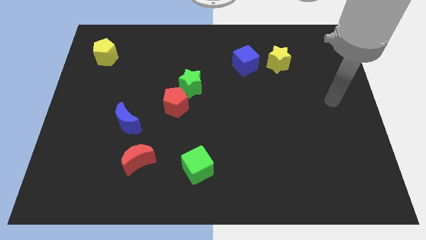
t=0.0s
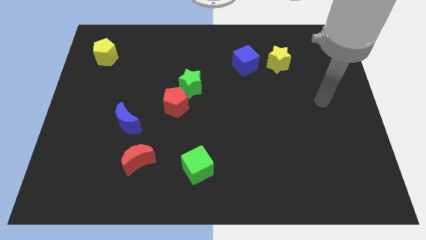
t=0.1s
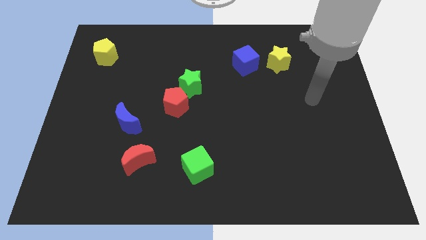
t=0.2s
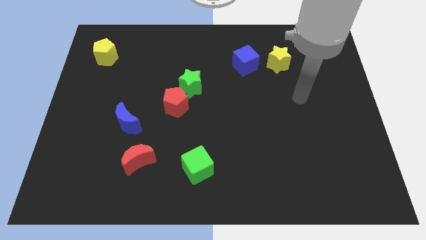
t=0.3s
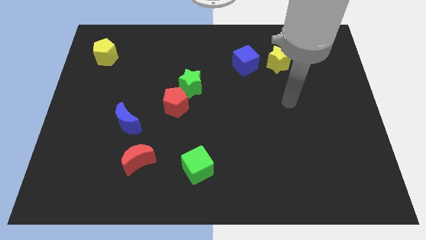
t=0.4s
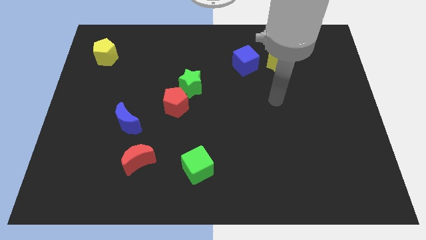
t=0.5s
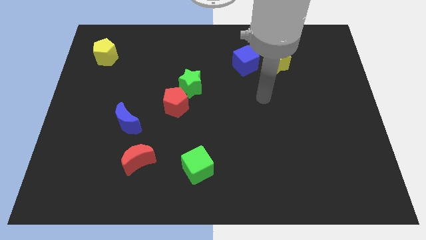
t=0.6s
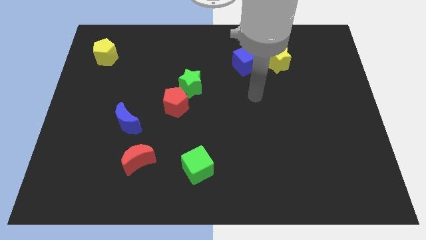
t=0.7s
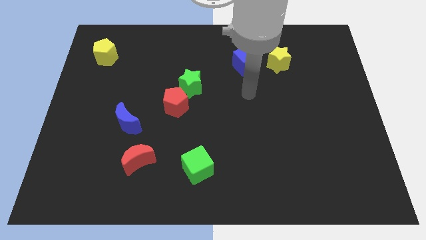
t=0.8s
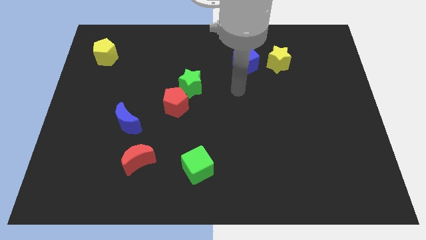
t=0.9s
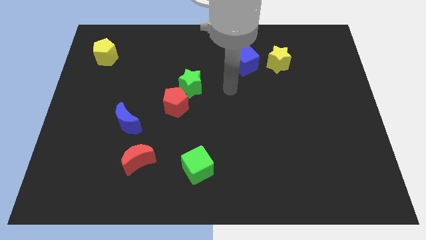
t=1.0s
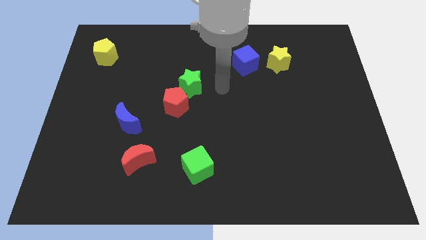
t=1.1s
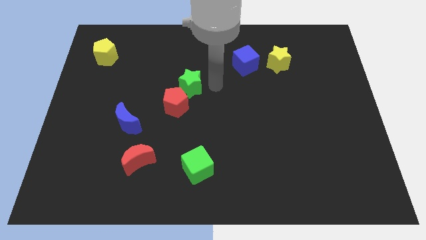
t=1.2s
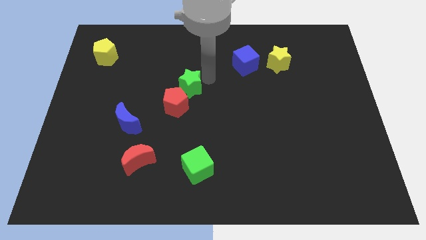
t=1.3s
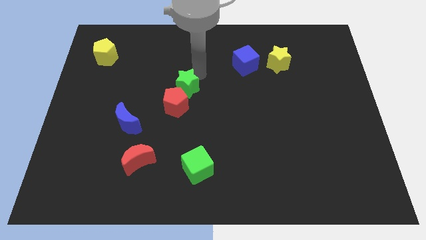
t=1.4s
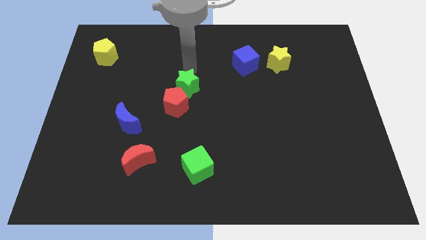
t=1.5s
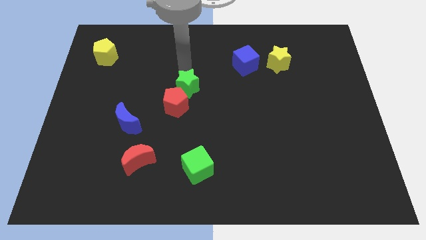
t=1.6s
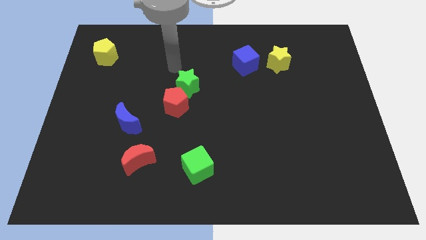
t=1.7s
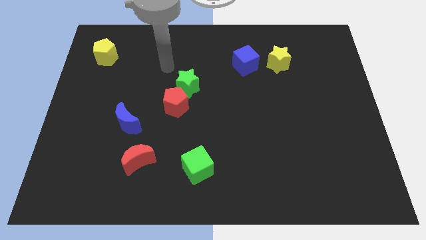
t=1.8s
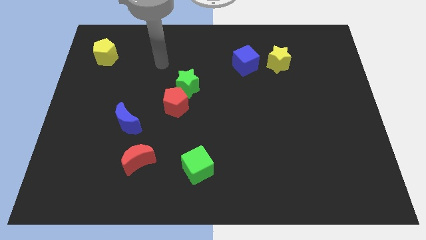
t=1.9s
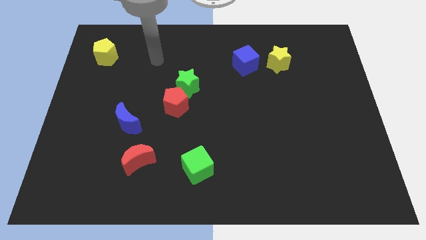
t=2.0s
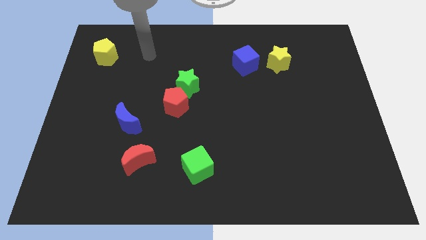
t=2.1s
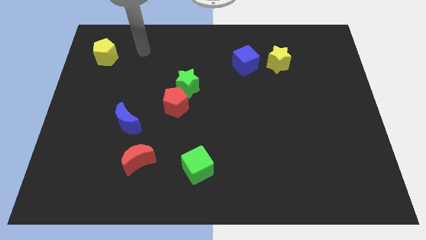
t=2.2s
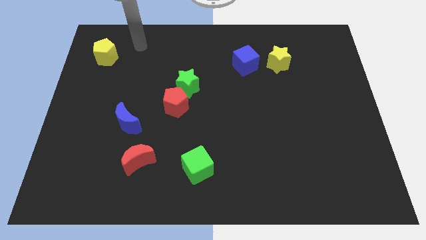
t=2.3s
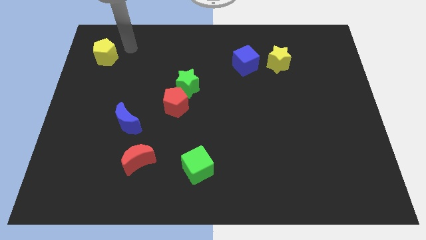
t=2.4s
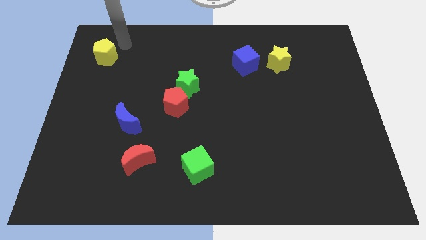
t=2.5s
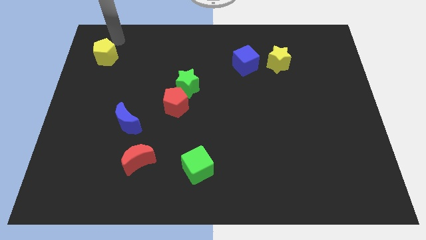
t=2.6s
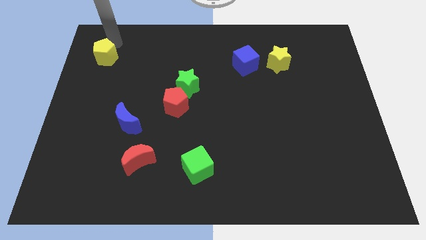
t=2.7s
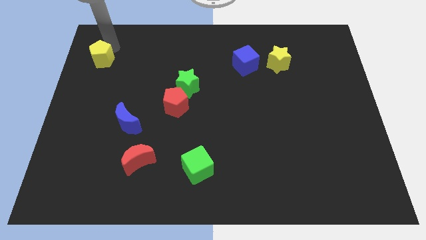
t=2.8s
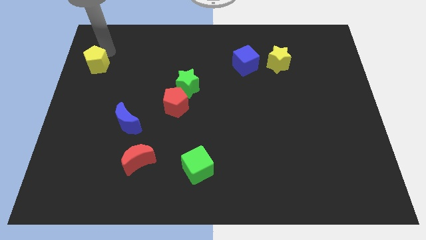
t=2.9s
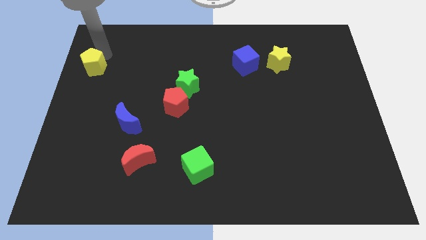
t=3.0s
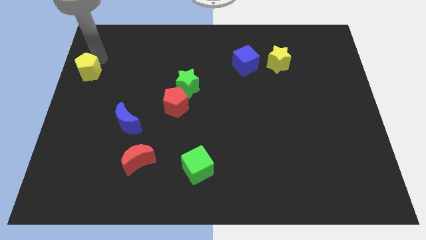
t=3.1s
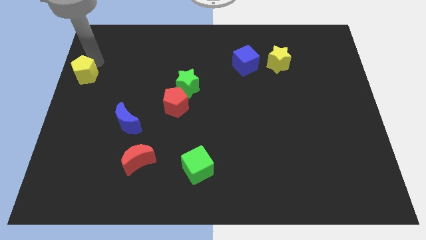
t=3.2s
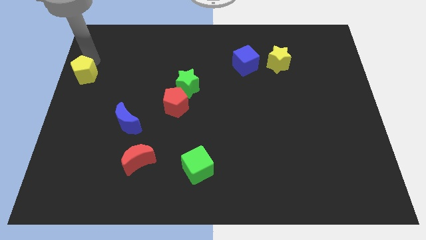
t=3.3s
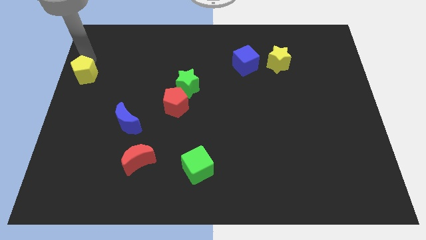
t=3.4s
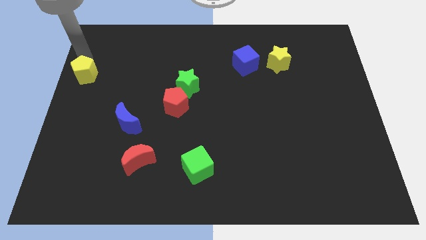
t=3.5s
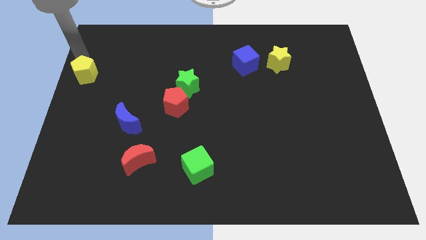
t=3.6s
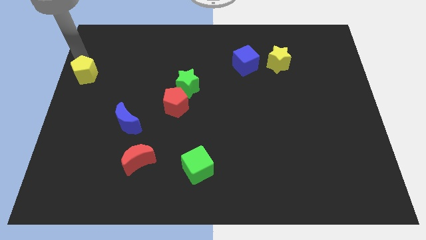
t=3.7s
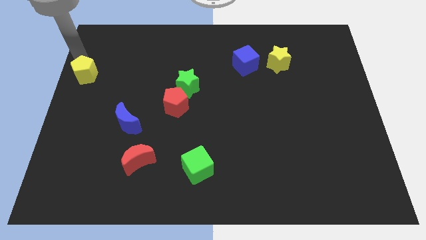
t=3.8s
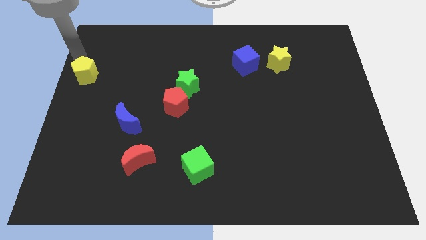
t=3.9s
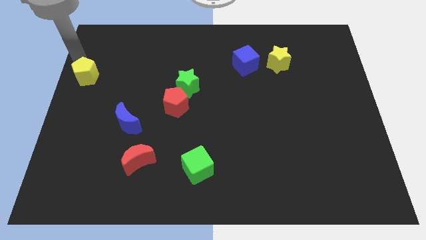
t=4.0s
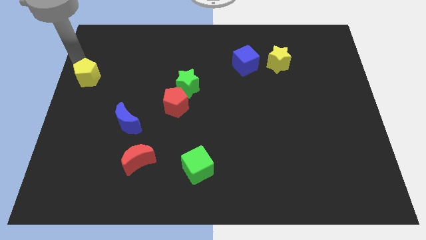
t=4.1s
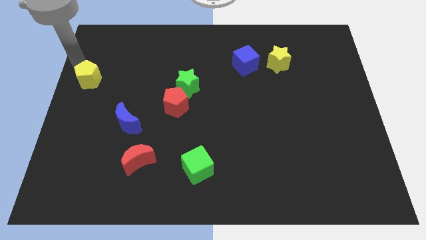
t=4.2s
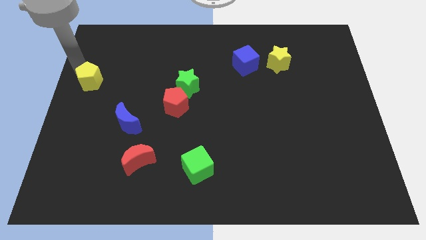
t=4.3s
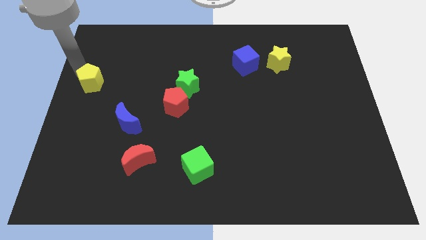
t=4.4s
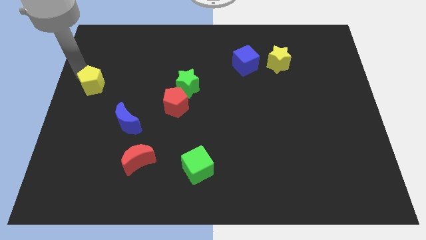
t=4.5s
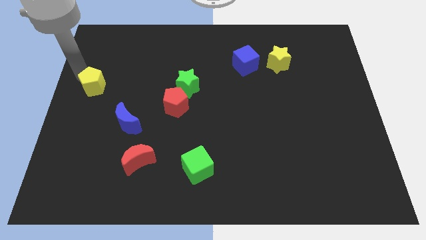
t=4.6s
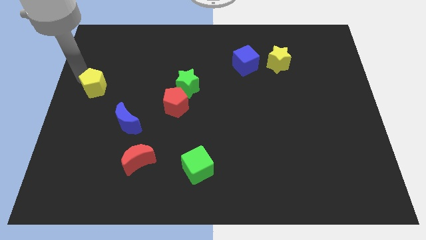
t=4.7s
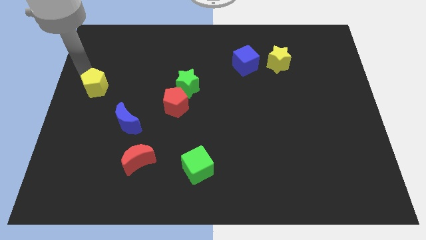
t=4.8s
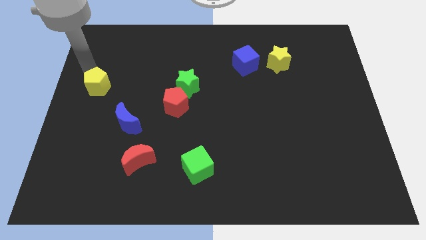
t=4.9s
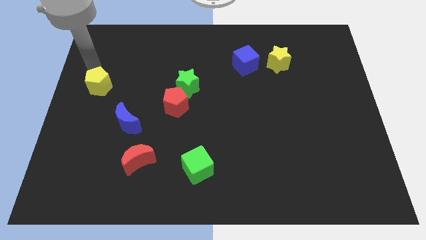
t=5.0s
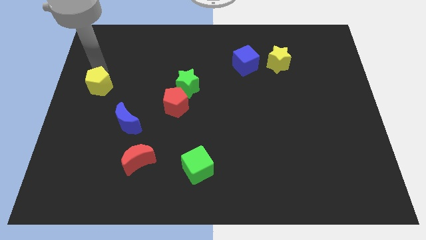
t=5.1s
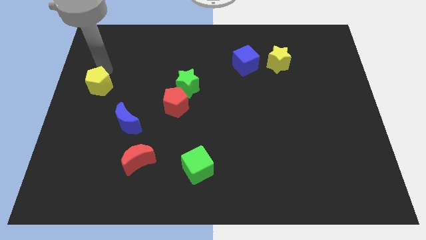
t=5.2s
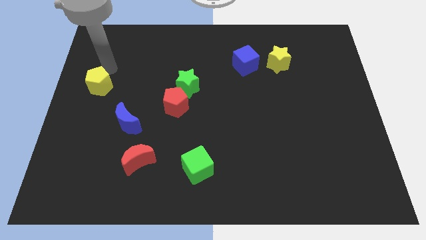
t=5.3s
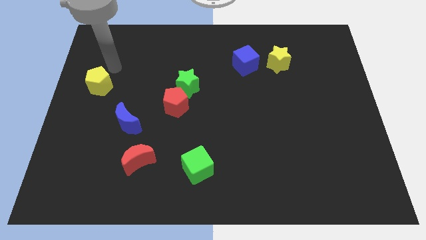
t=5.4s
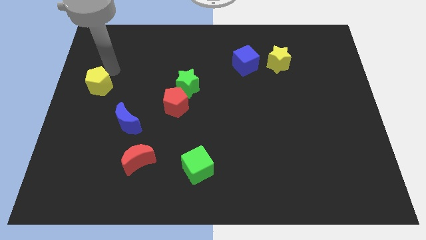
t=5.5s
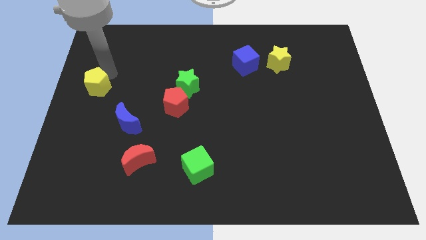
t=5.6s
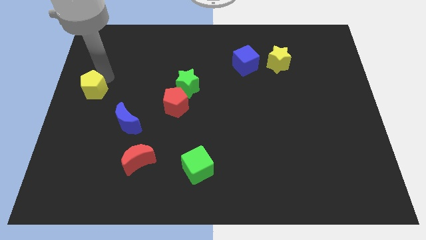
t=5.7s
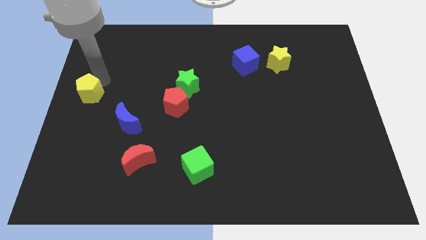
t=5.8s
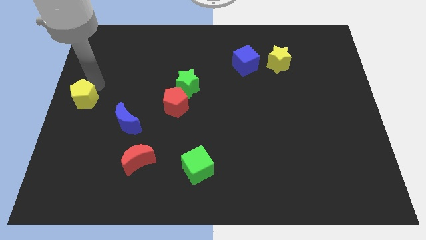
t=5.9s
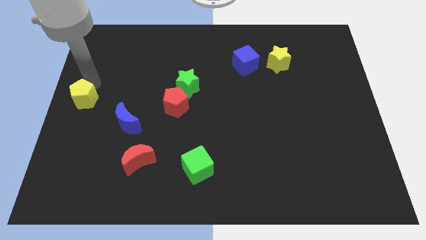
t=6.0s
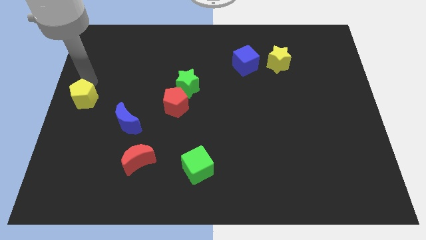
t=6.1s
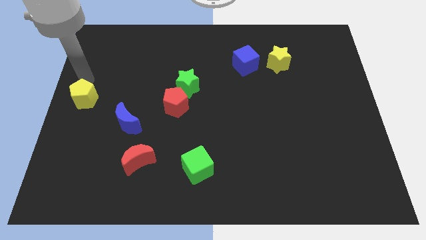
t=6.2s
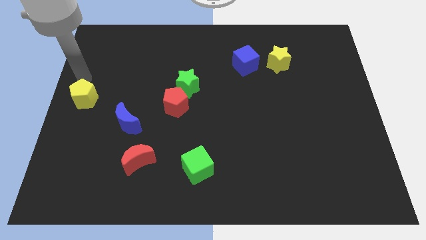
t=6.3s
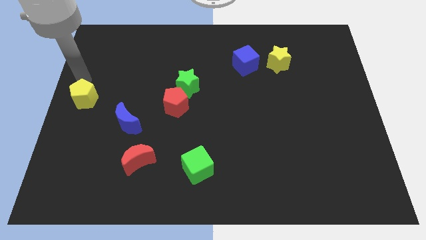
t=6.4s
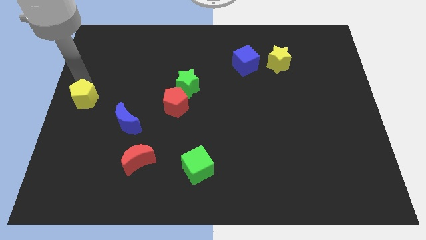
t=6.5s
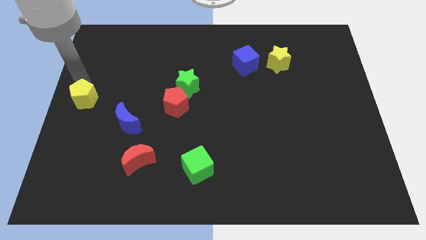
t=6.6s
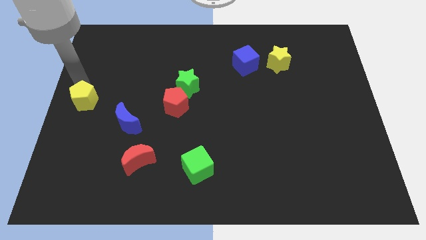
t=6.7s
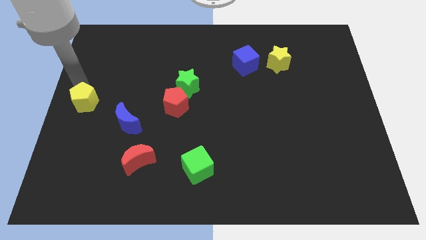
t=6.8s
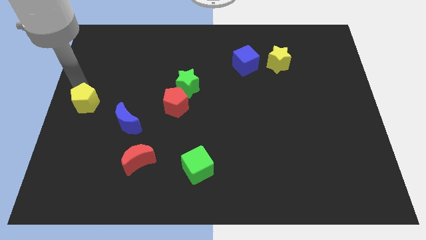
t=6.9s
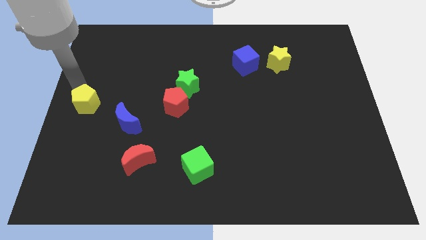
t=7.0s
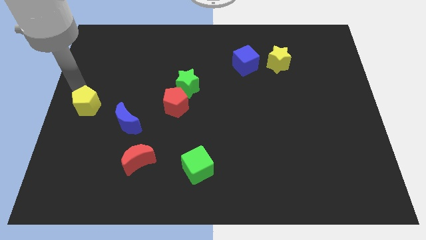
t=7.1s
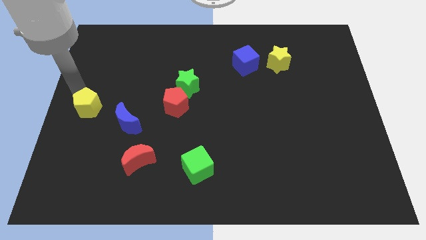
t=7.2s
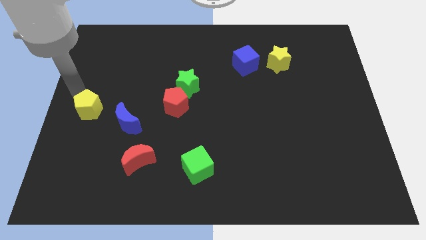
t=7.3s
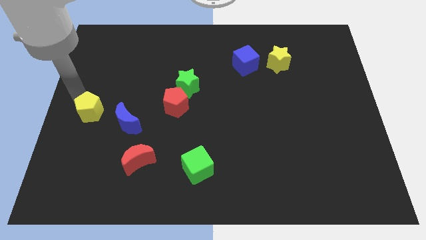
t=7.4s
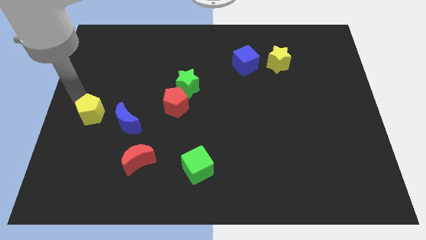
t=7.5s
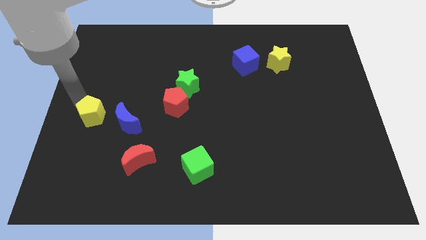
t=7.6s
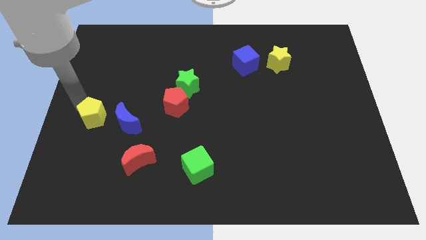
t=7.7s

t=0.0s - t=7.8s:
push the yellow pentagon down

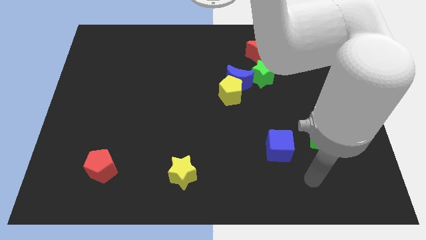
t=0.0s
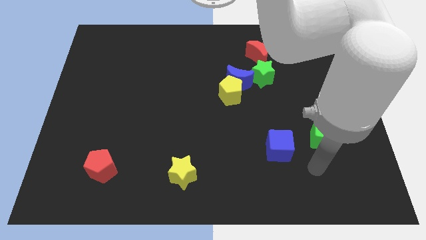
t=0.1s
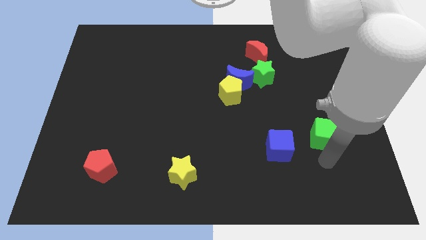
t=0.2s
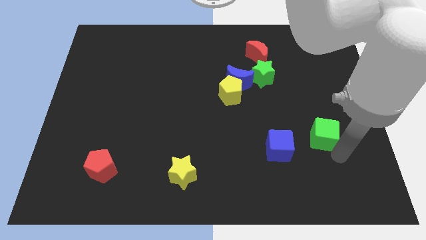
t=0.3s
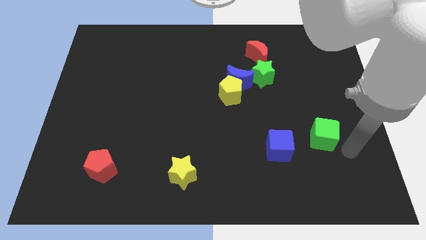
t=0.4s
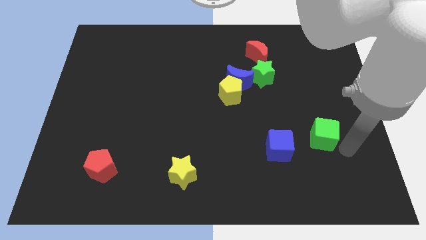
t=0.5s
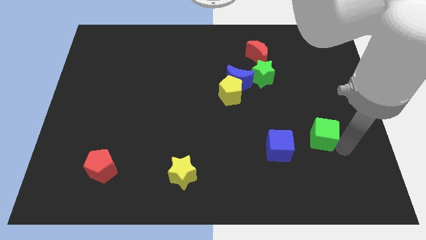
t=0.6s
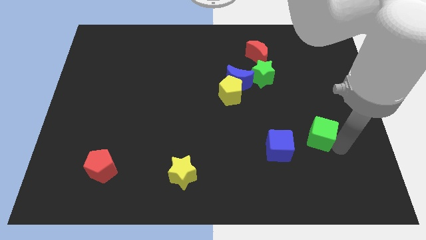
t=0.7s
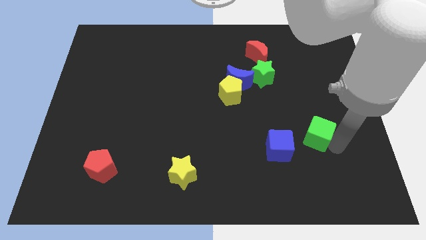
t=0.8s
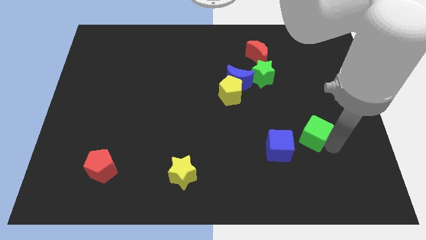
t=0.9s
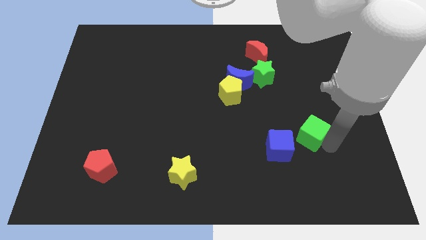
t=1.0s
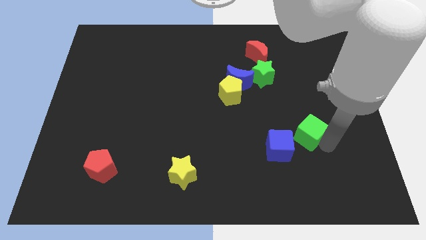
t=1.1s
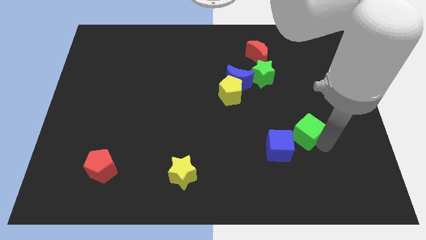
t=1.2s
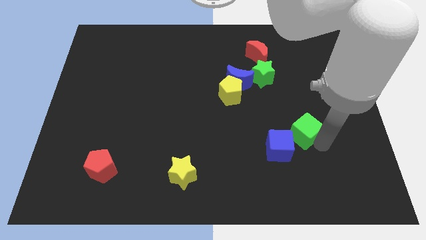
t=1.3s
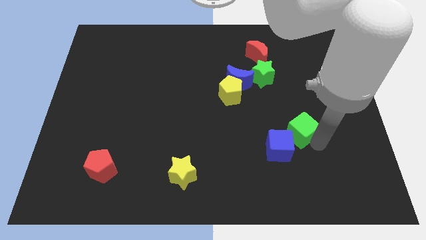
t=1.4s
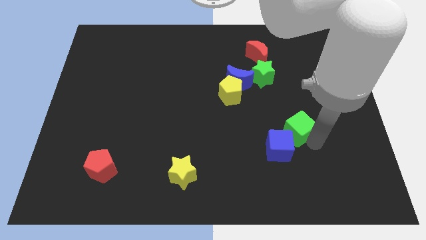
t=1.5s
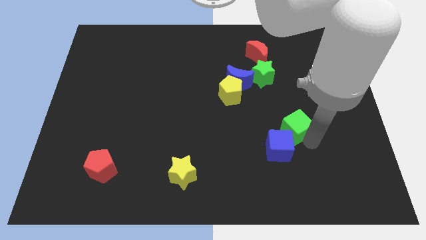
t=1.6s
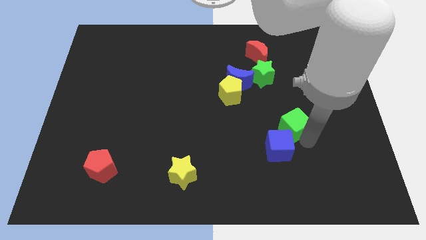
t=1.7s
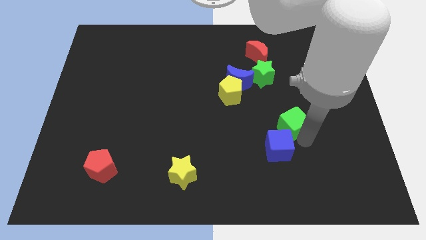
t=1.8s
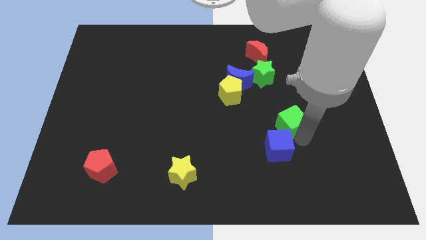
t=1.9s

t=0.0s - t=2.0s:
move the green cube diagonally up and to the left a little bit
